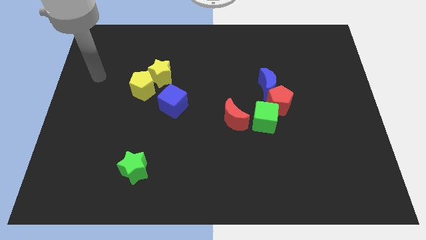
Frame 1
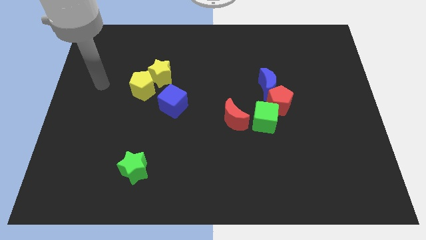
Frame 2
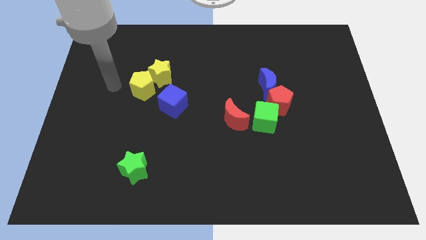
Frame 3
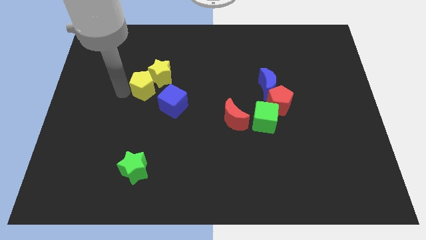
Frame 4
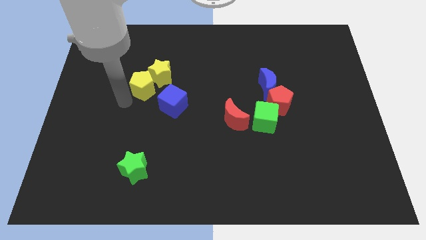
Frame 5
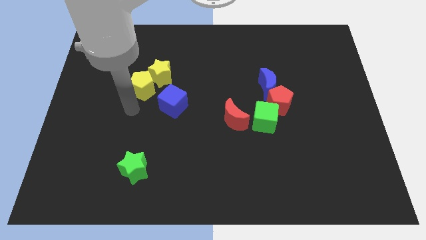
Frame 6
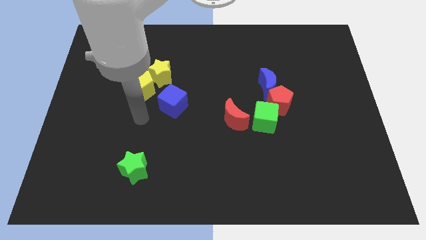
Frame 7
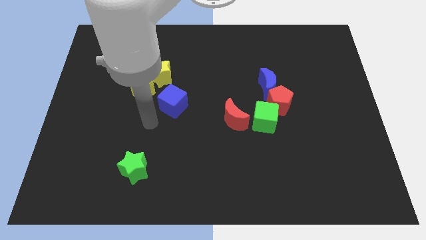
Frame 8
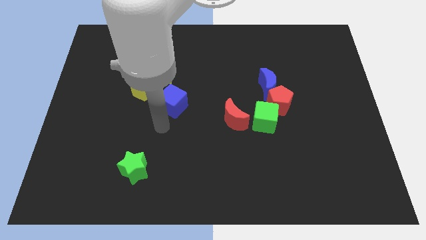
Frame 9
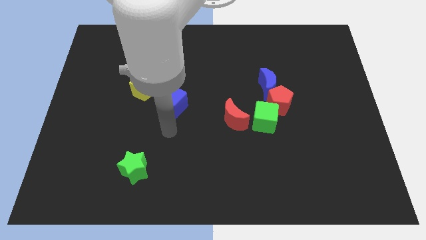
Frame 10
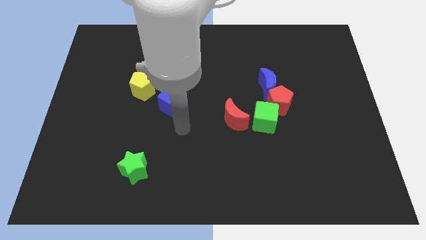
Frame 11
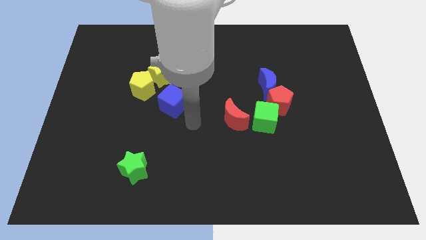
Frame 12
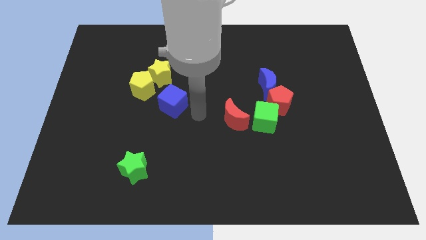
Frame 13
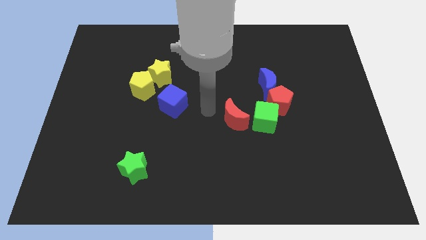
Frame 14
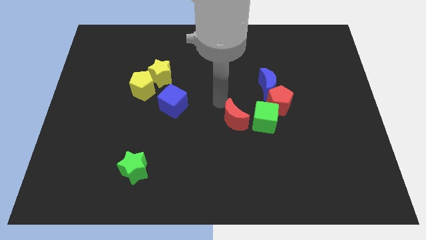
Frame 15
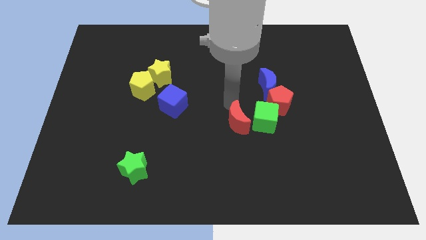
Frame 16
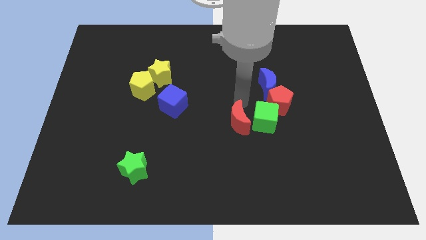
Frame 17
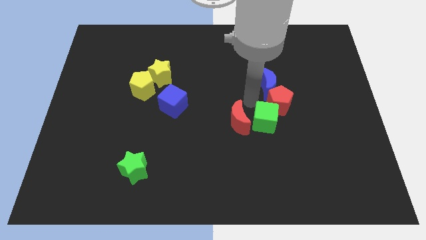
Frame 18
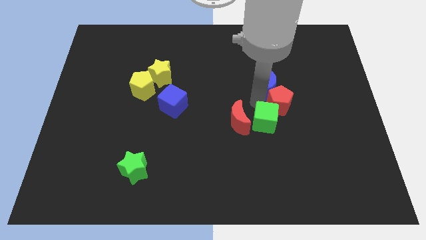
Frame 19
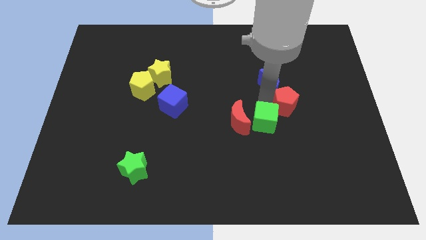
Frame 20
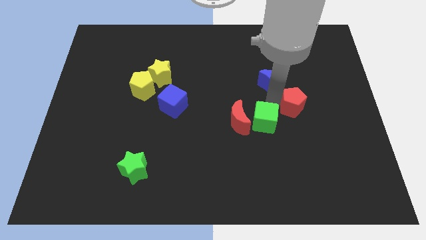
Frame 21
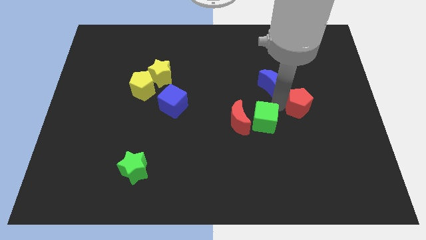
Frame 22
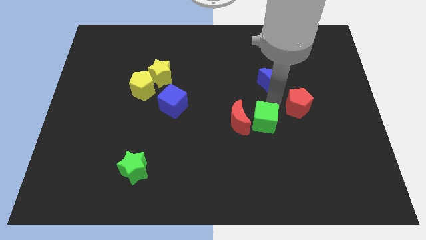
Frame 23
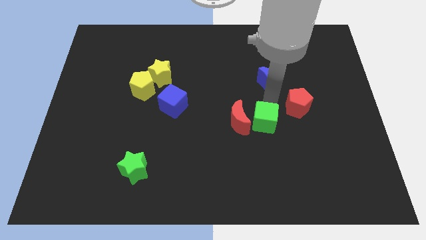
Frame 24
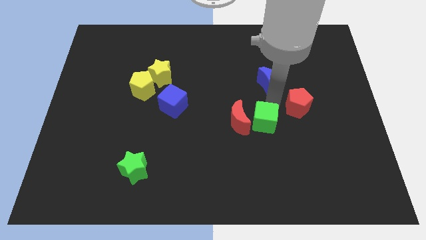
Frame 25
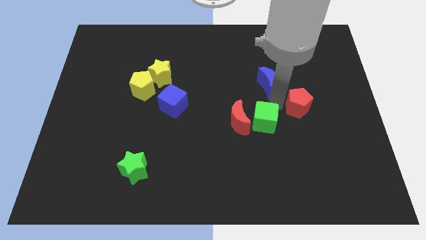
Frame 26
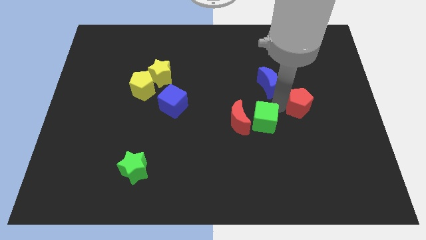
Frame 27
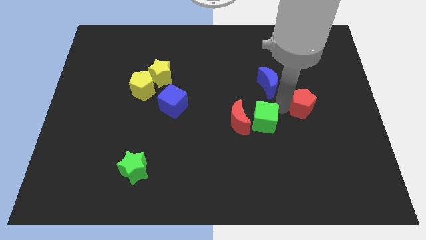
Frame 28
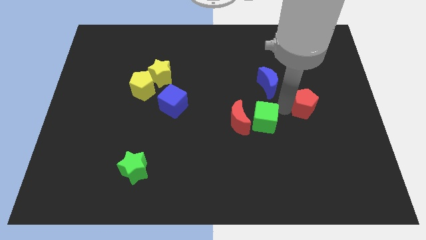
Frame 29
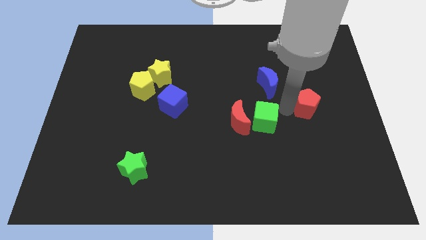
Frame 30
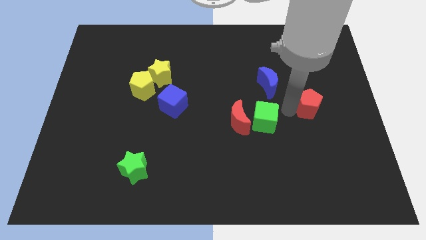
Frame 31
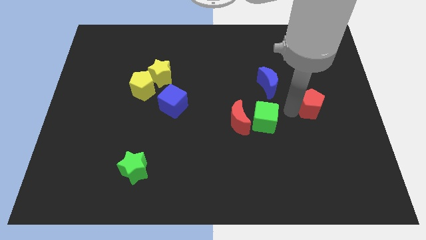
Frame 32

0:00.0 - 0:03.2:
move the red pentagon away from the blue moon and green cube

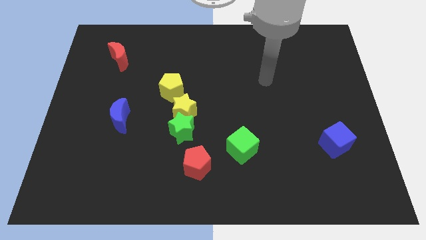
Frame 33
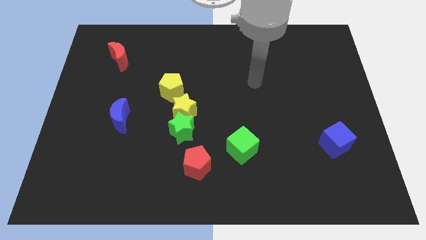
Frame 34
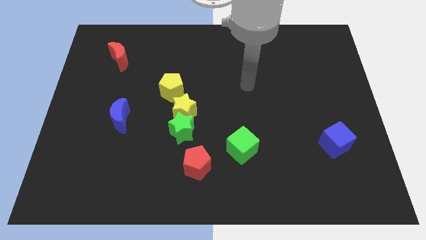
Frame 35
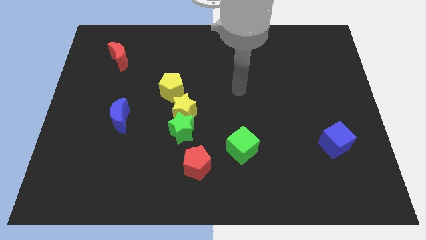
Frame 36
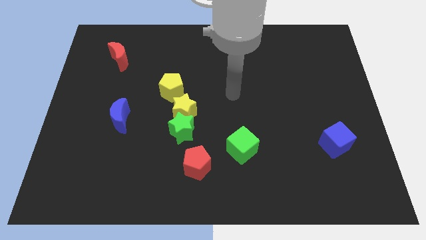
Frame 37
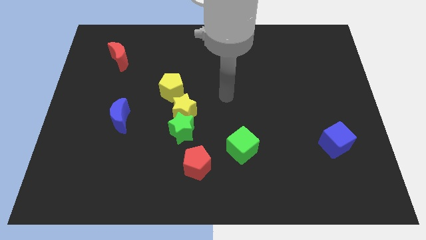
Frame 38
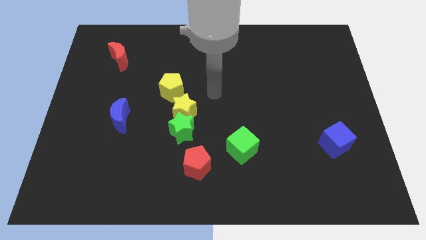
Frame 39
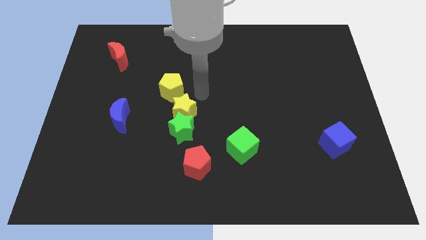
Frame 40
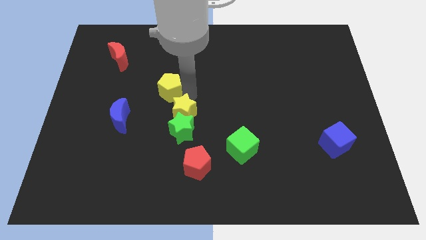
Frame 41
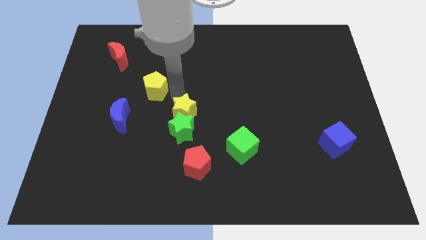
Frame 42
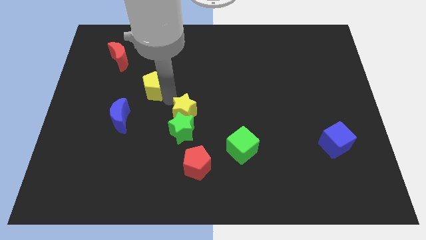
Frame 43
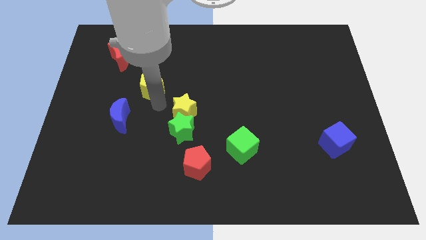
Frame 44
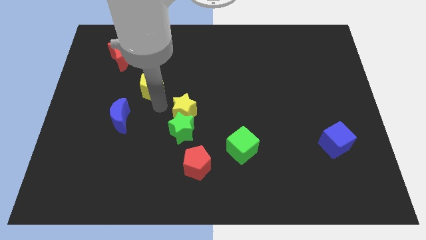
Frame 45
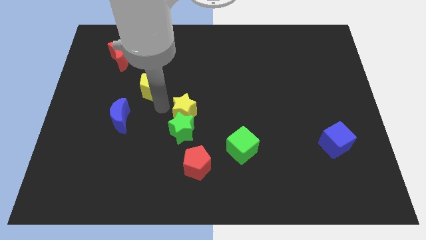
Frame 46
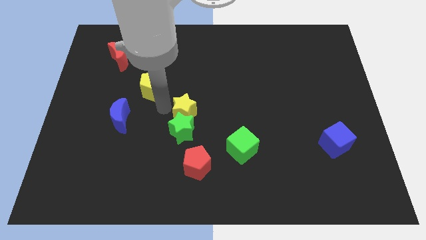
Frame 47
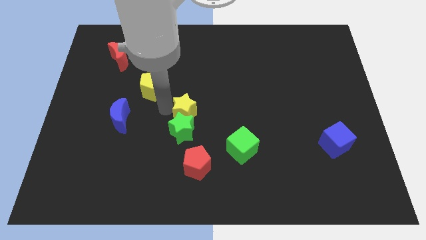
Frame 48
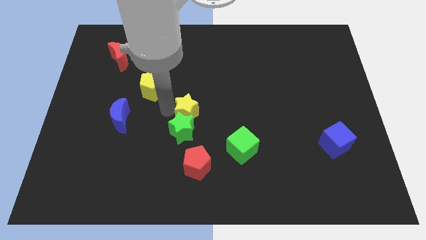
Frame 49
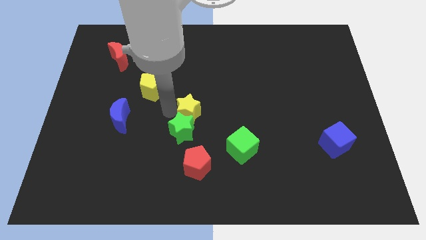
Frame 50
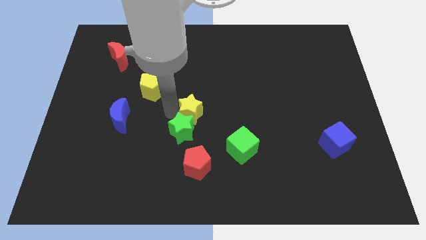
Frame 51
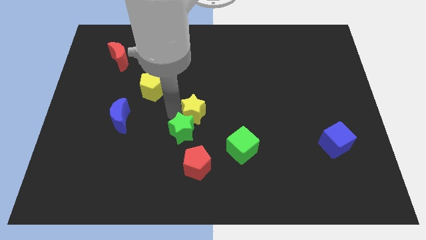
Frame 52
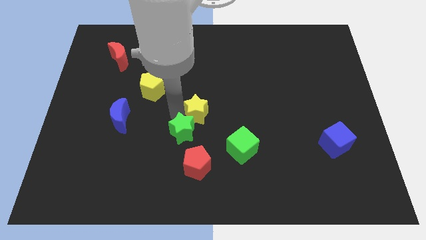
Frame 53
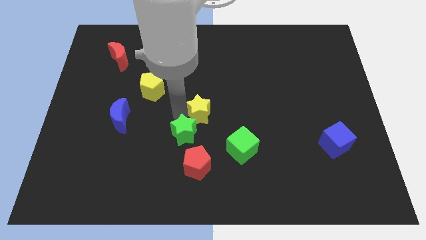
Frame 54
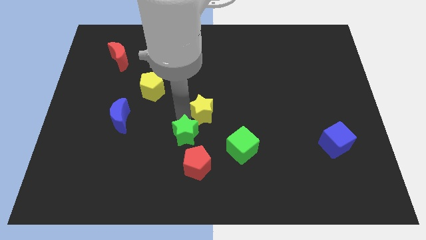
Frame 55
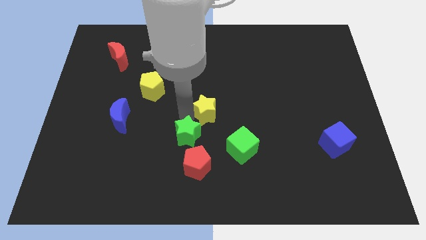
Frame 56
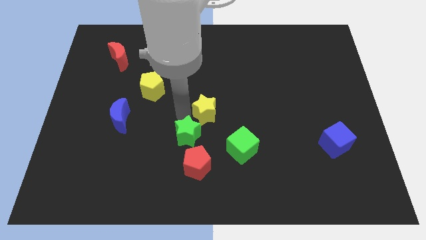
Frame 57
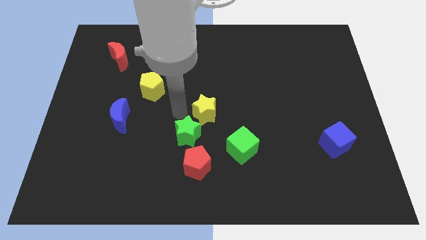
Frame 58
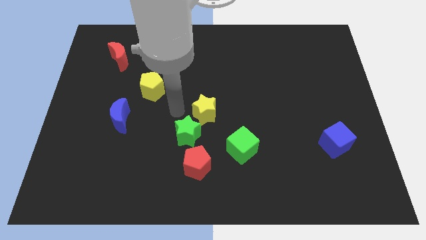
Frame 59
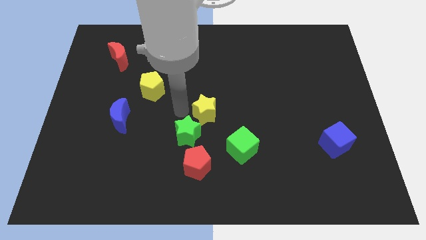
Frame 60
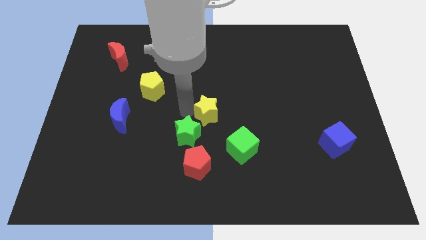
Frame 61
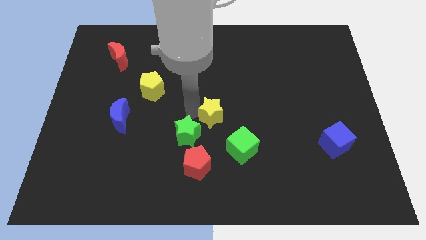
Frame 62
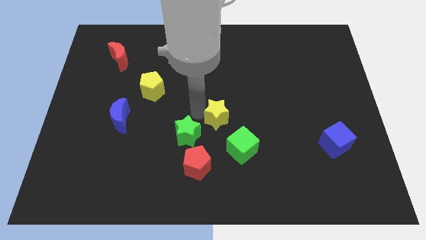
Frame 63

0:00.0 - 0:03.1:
move the yellow star away from the green star and yellow pentagon

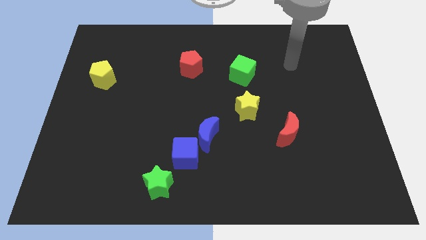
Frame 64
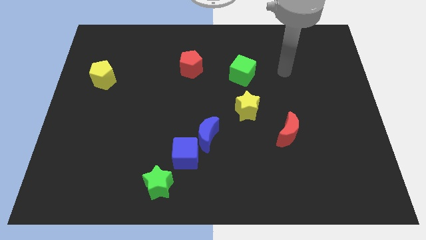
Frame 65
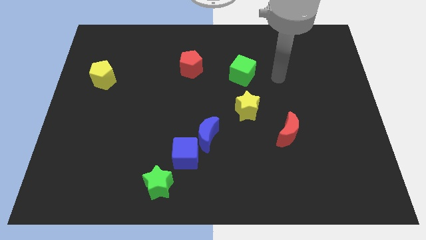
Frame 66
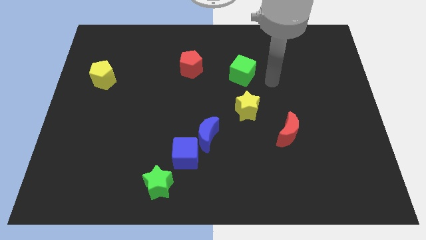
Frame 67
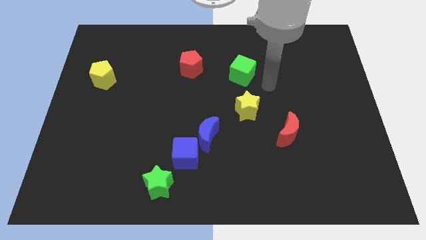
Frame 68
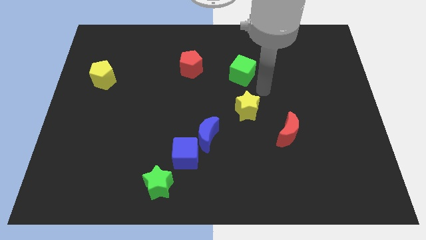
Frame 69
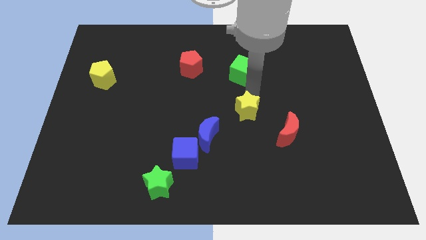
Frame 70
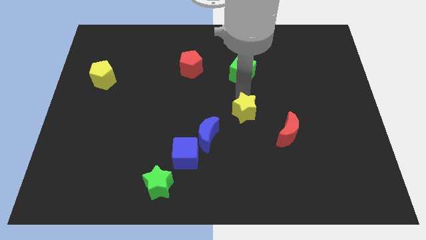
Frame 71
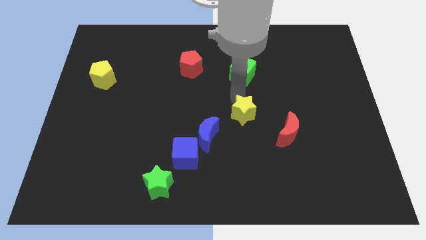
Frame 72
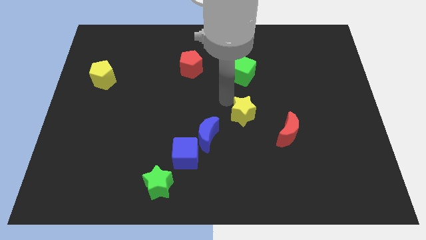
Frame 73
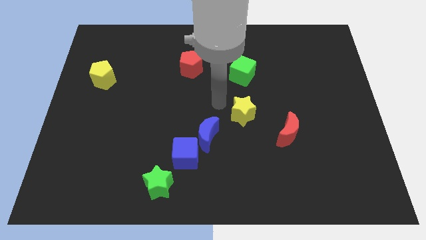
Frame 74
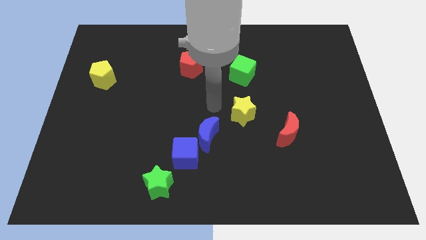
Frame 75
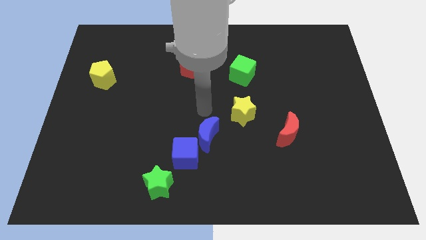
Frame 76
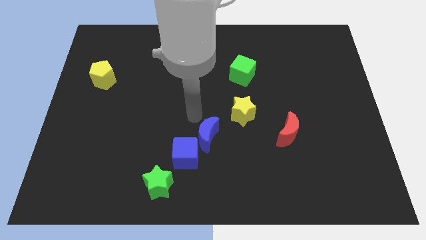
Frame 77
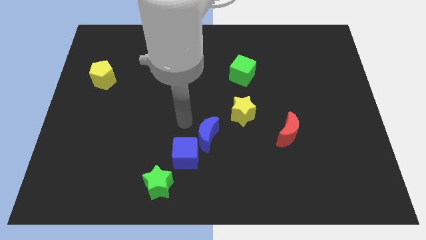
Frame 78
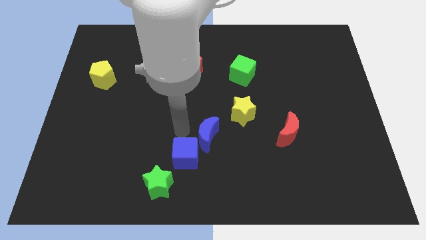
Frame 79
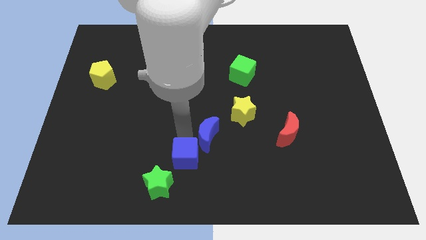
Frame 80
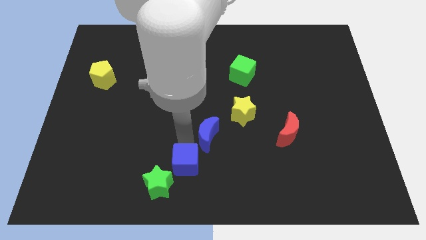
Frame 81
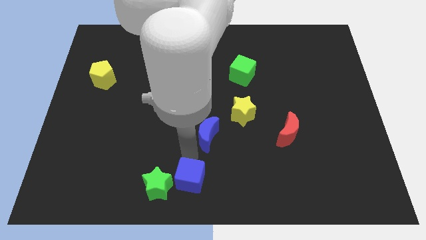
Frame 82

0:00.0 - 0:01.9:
move the blue moon away from the blue cube

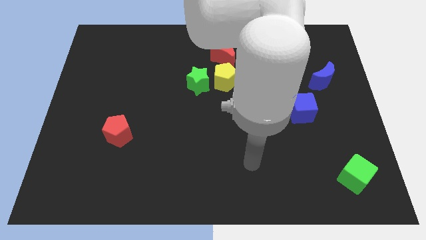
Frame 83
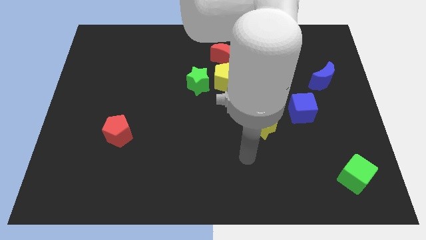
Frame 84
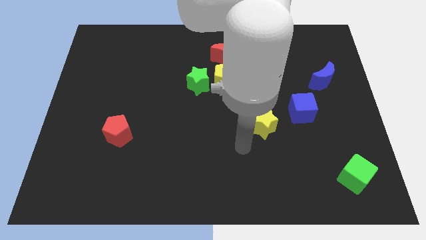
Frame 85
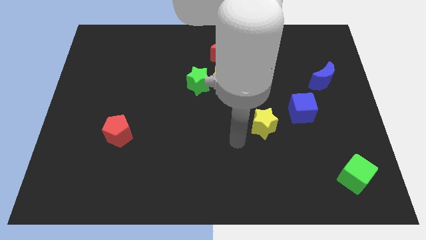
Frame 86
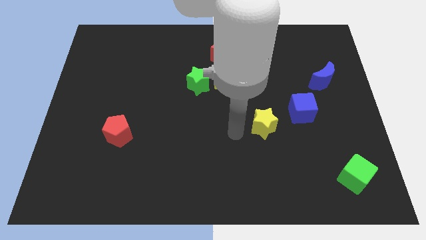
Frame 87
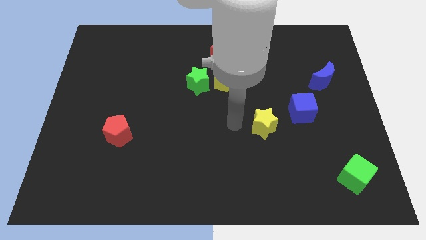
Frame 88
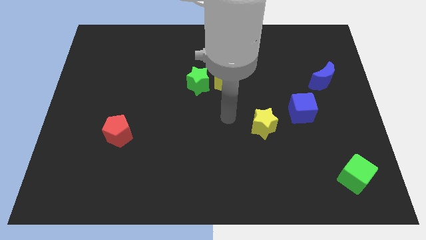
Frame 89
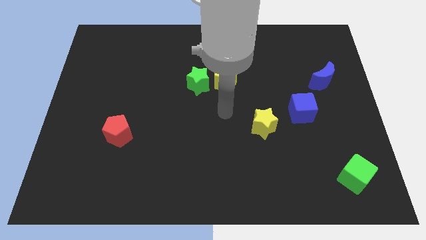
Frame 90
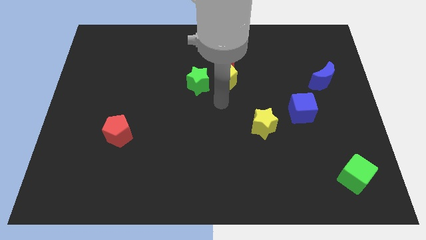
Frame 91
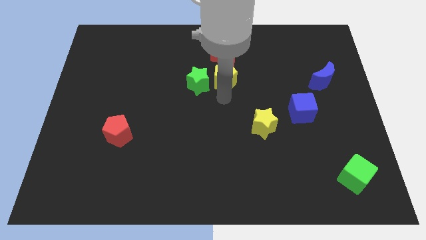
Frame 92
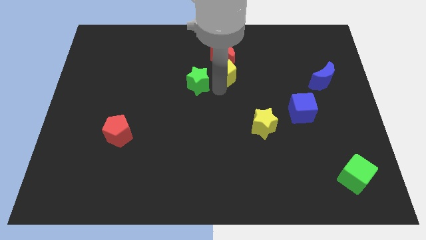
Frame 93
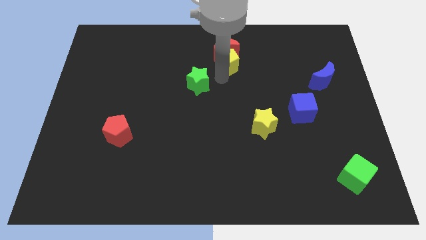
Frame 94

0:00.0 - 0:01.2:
pull the green star apart from the yellow pentagon
